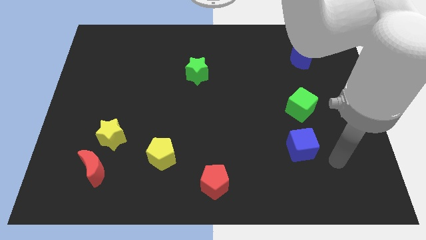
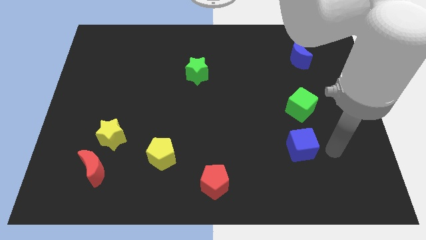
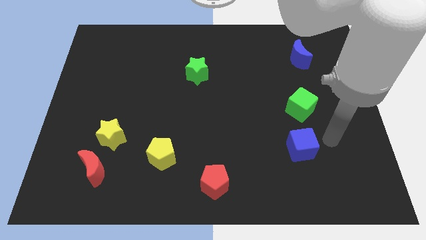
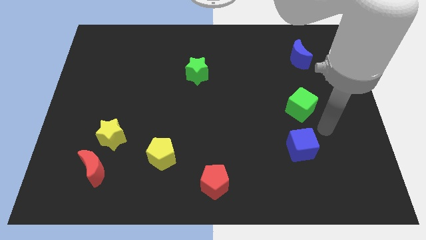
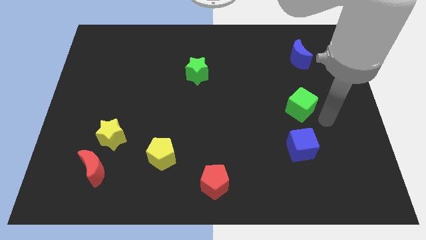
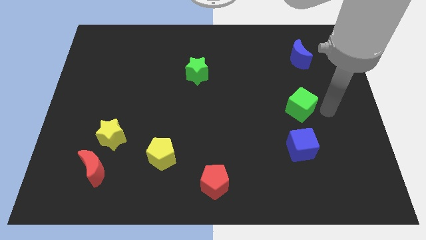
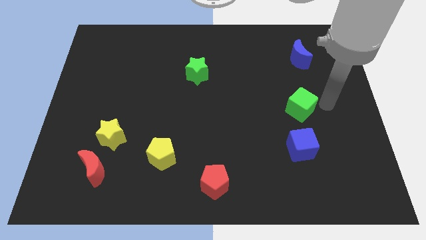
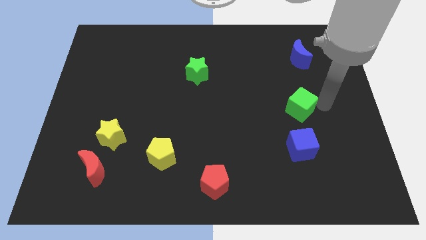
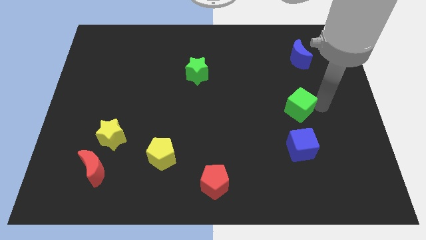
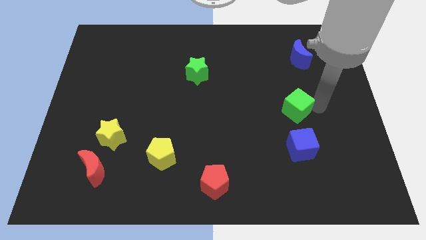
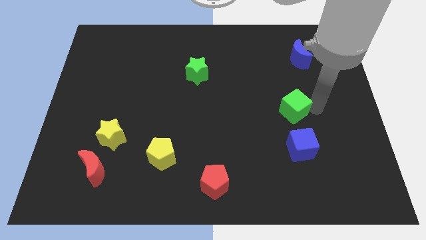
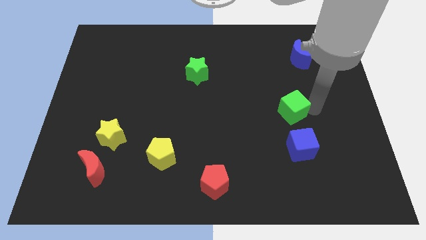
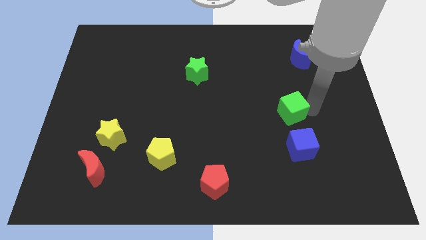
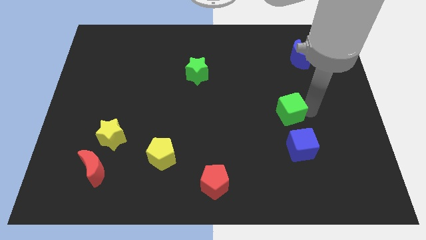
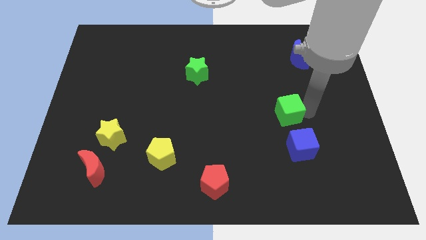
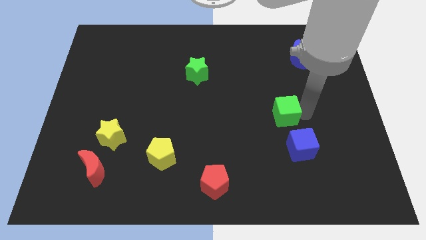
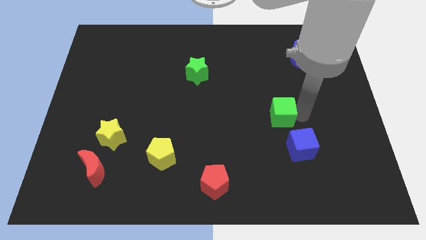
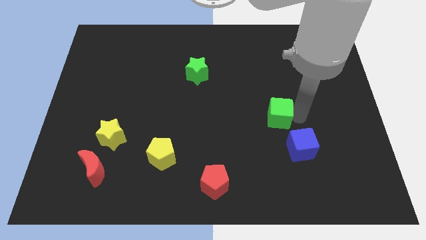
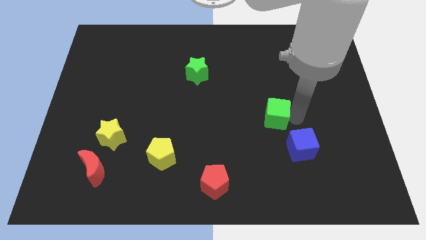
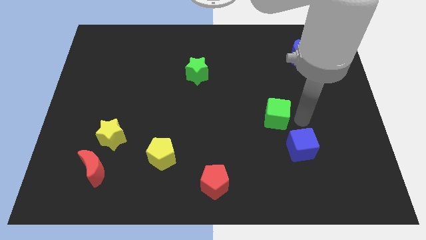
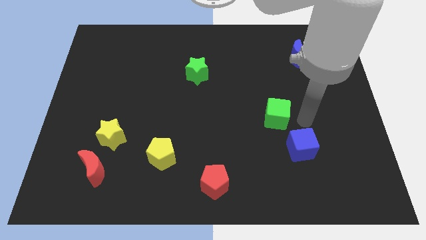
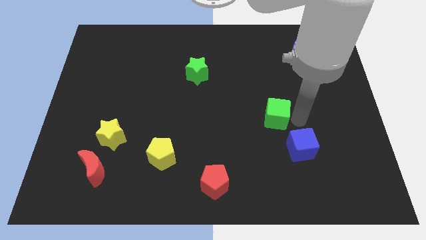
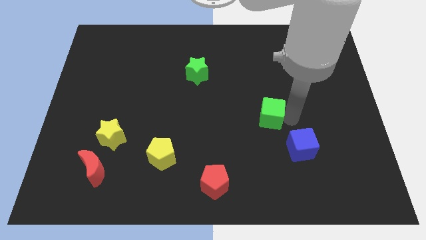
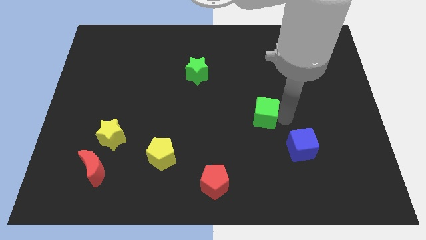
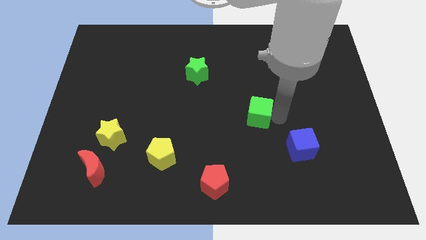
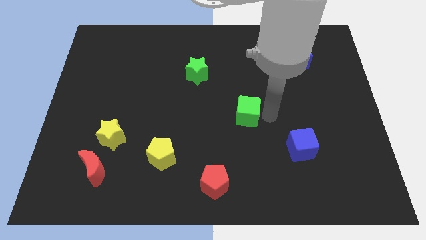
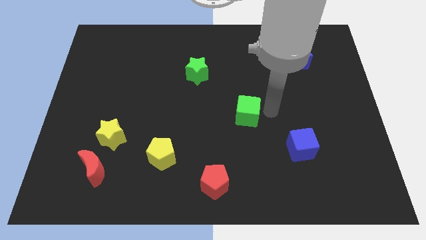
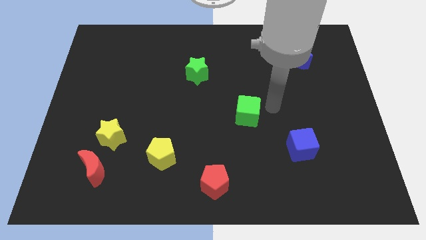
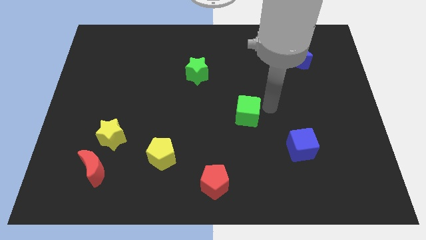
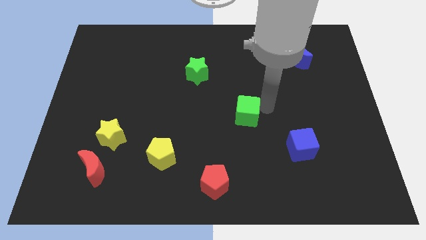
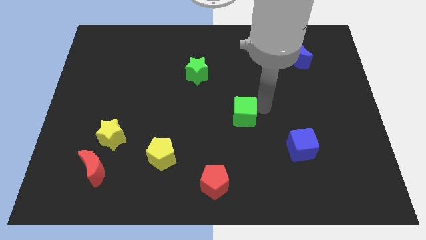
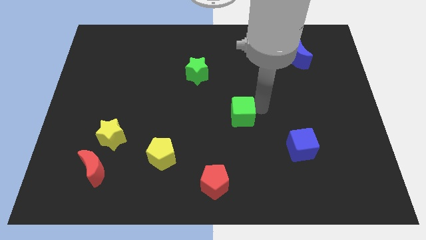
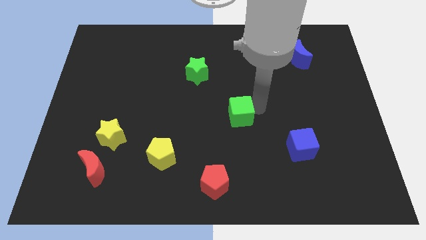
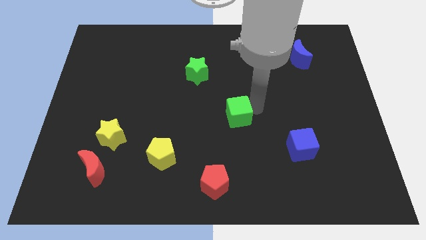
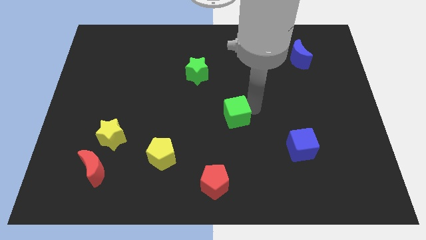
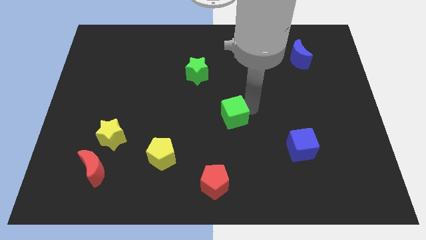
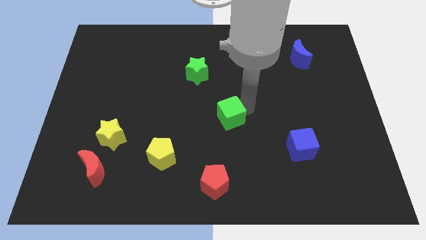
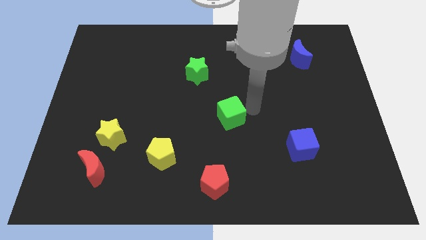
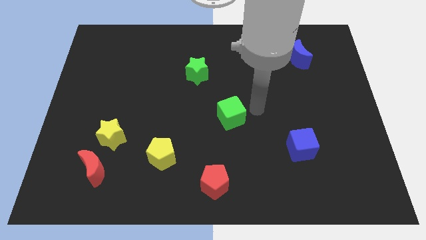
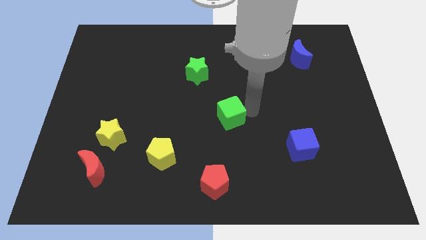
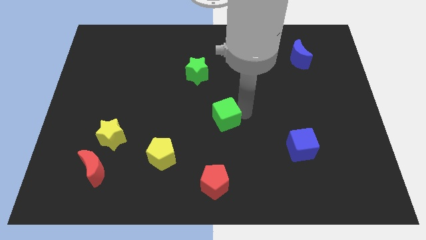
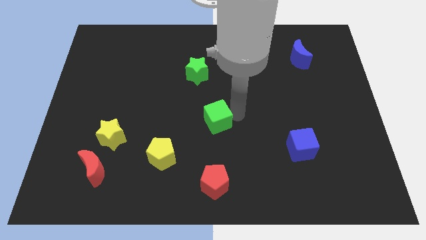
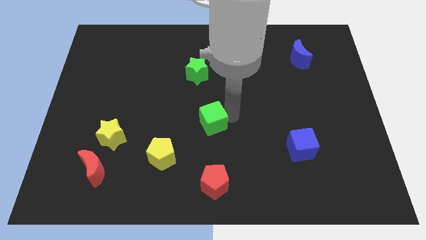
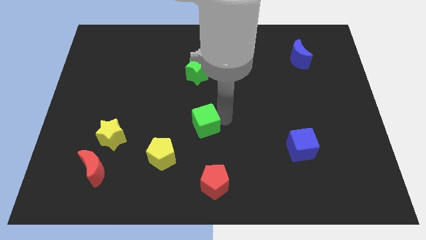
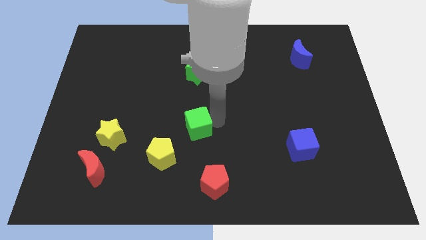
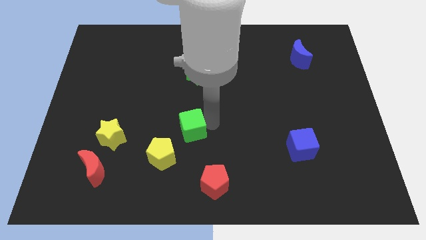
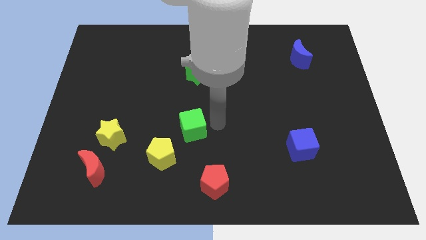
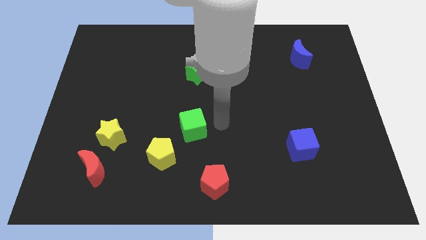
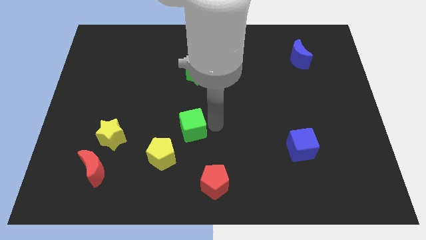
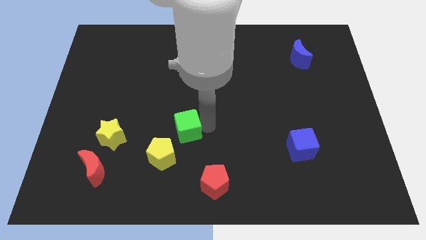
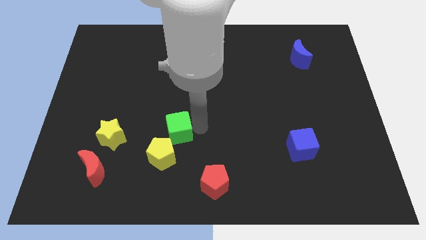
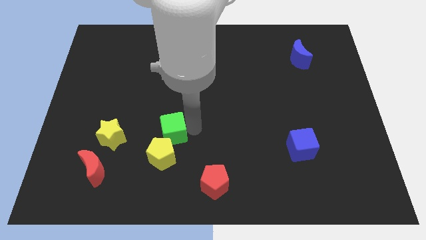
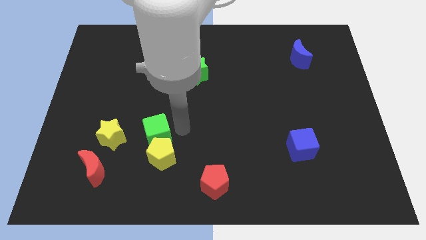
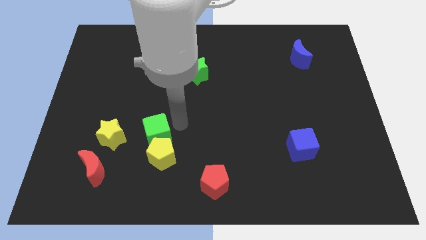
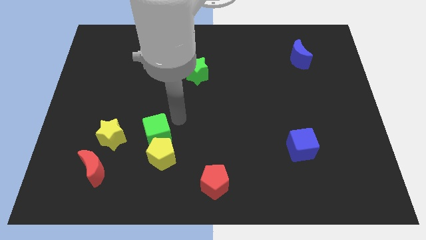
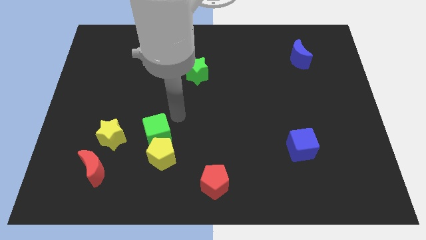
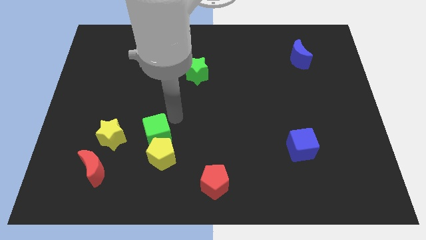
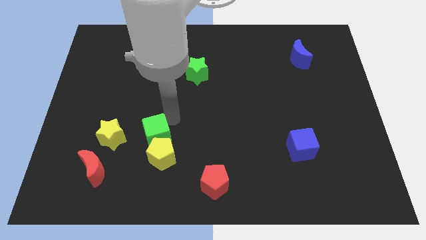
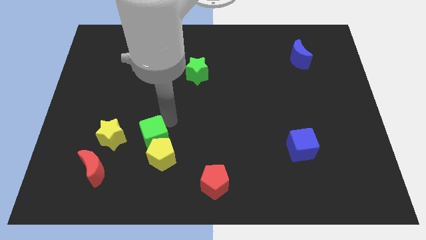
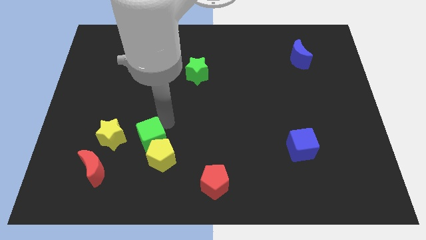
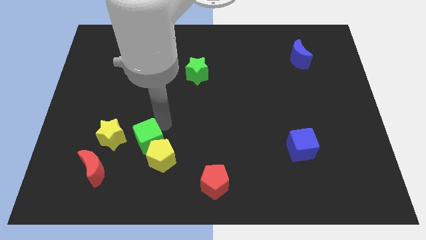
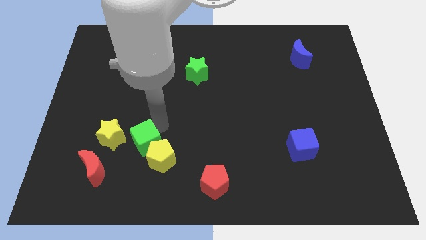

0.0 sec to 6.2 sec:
slide the green cube to the bottom right side of the yellow star

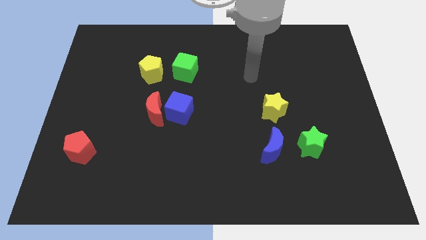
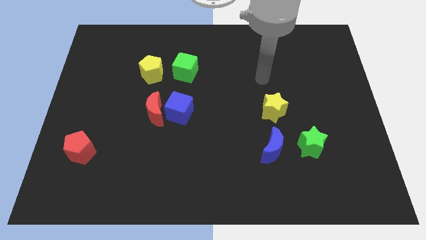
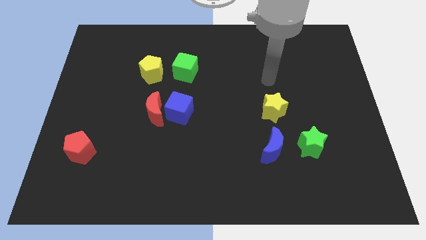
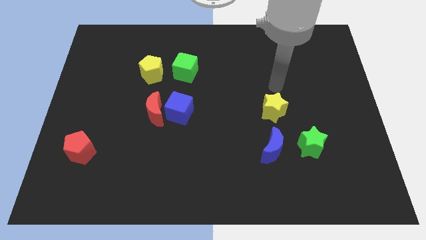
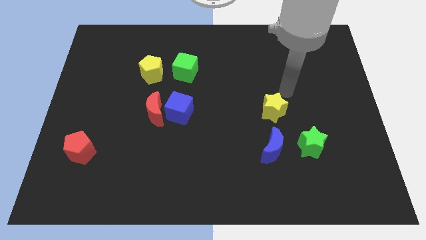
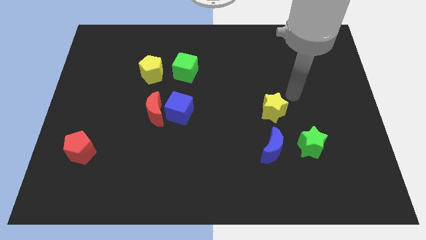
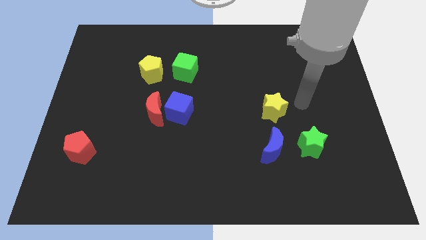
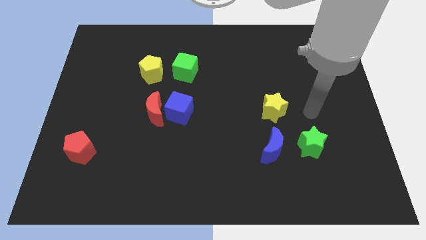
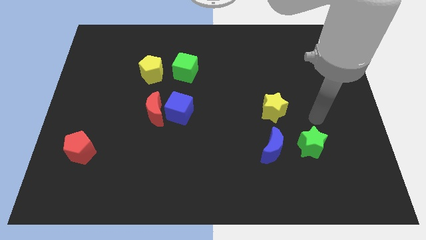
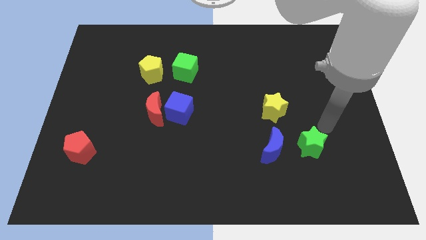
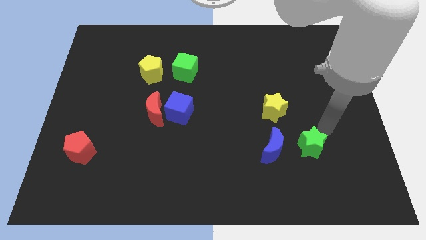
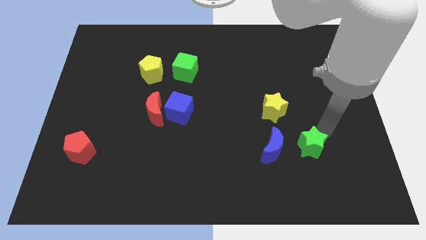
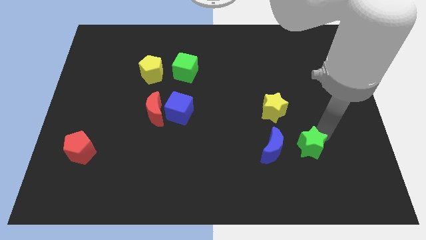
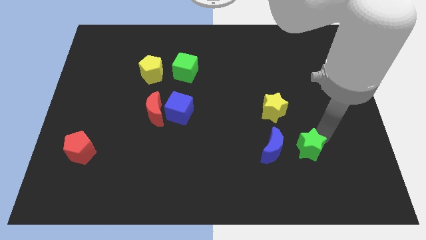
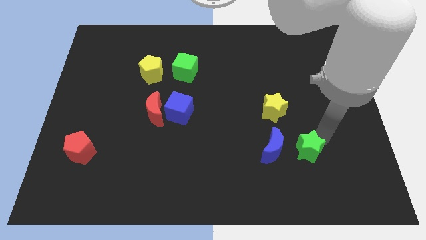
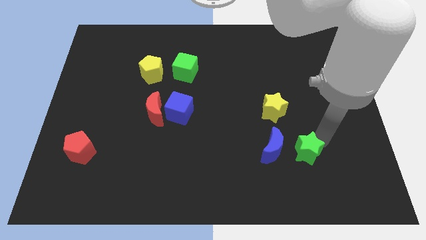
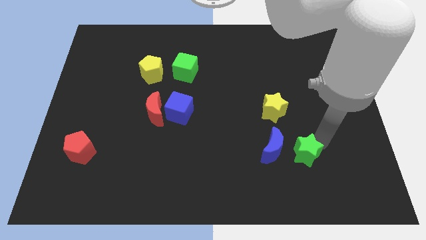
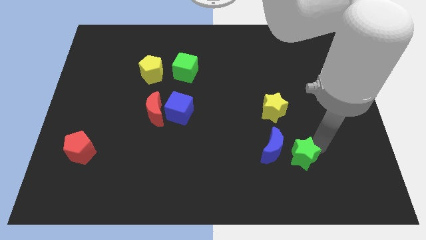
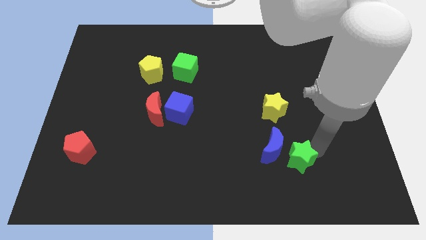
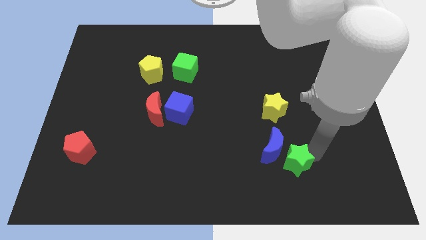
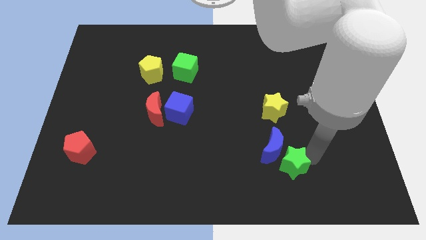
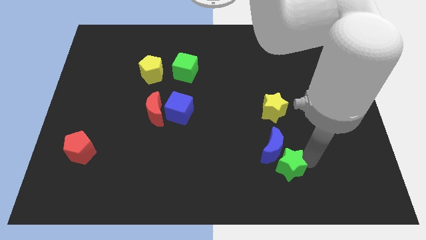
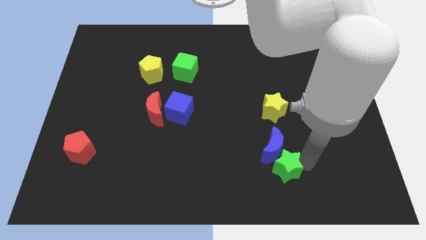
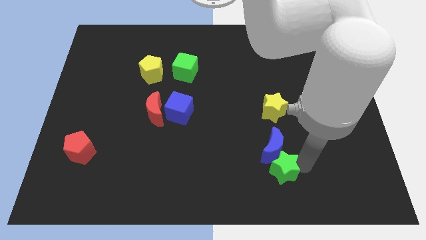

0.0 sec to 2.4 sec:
push the green star diagonally down and to the left of the blue moon
